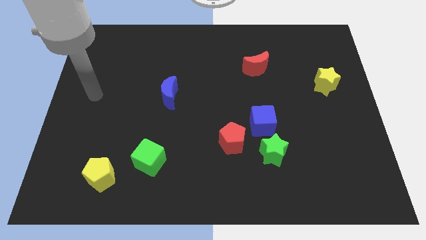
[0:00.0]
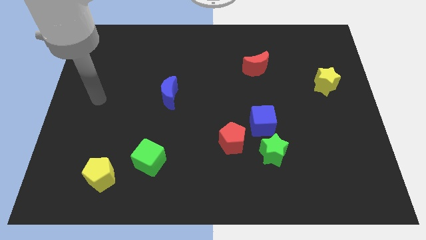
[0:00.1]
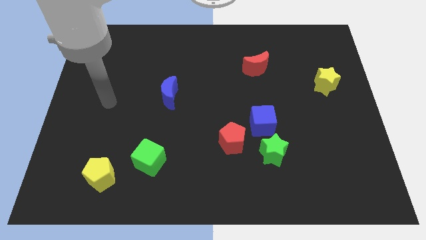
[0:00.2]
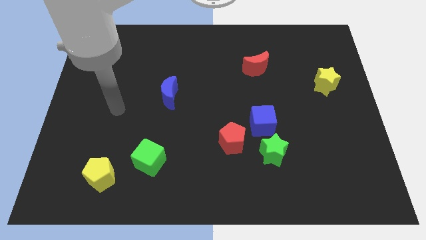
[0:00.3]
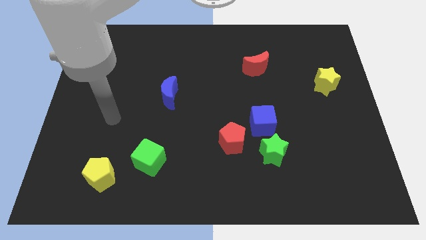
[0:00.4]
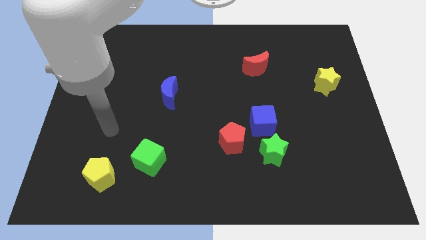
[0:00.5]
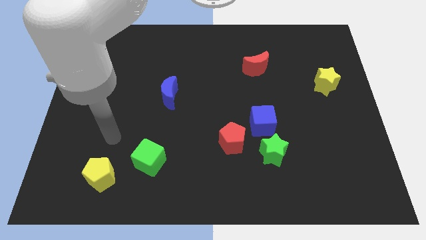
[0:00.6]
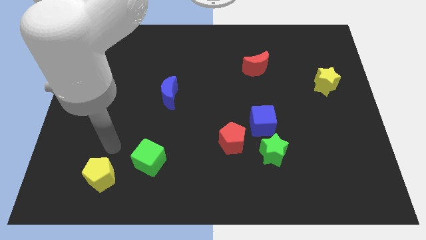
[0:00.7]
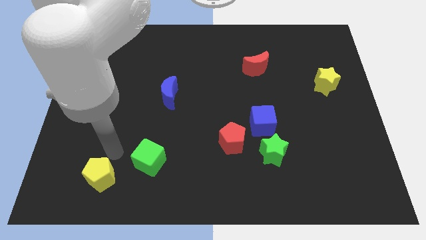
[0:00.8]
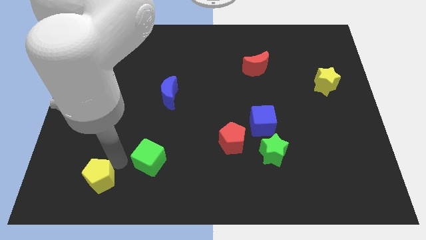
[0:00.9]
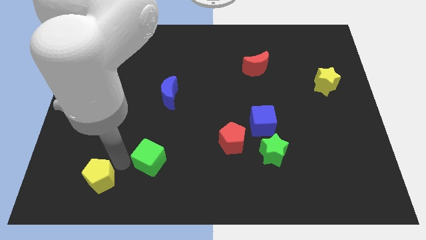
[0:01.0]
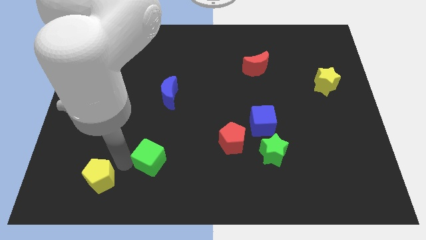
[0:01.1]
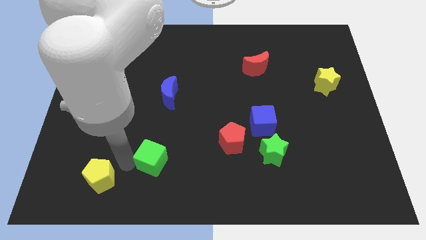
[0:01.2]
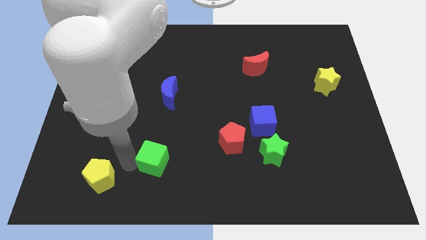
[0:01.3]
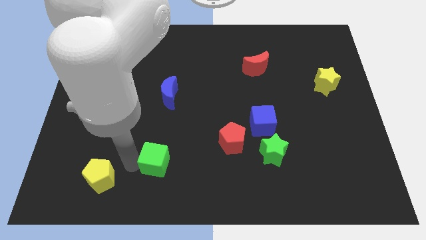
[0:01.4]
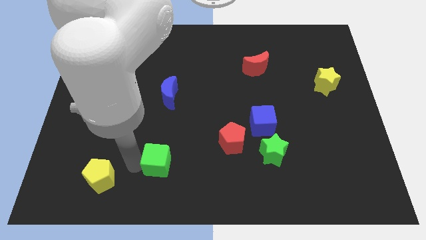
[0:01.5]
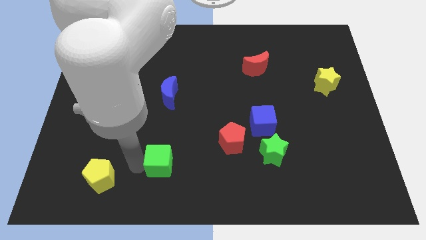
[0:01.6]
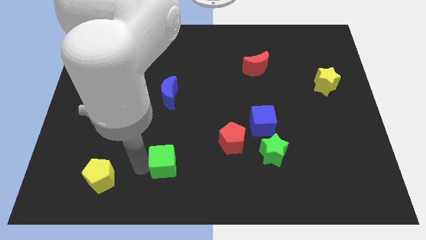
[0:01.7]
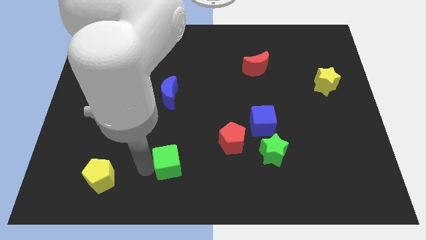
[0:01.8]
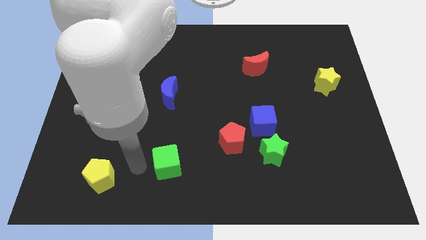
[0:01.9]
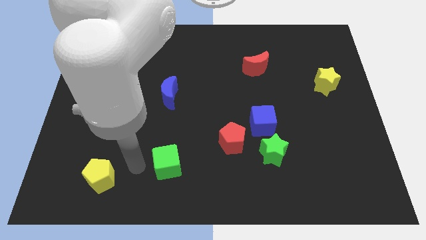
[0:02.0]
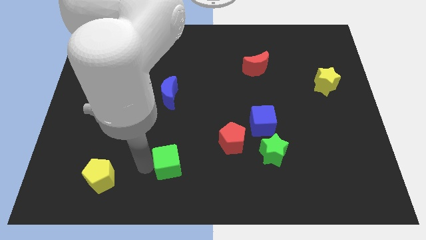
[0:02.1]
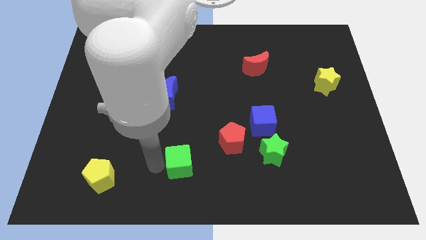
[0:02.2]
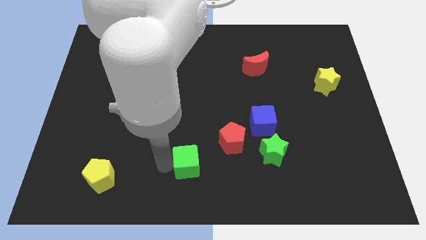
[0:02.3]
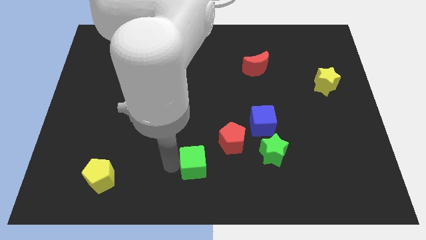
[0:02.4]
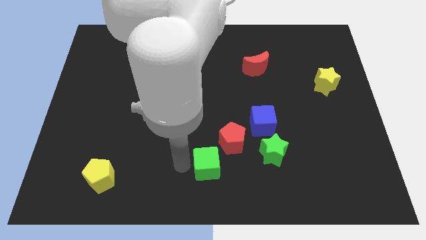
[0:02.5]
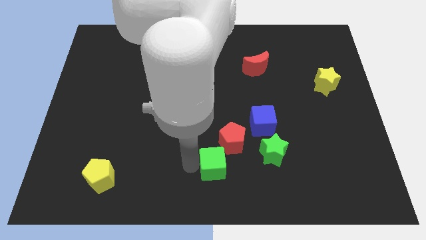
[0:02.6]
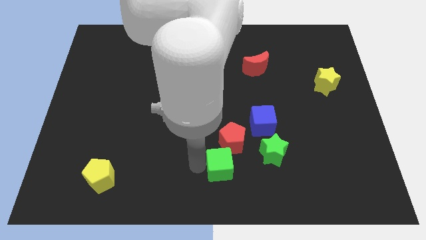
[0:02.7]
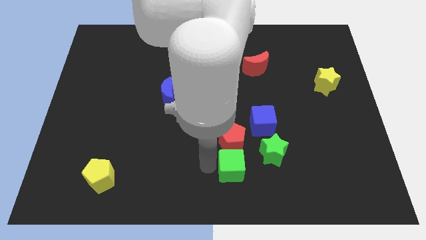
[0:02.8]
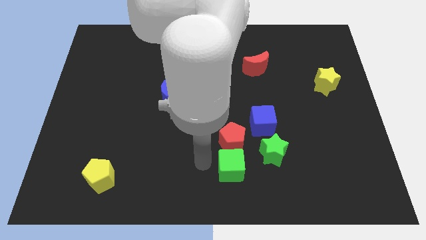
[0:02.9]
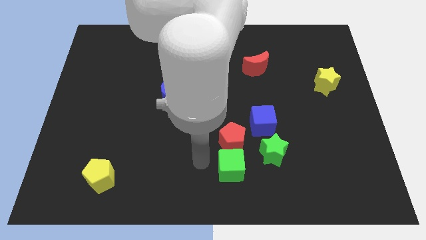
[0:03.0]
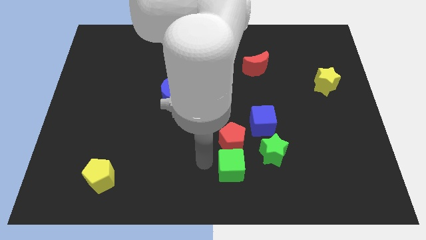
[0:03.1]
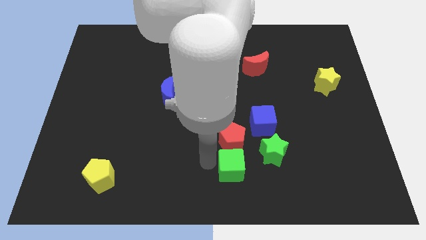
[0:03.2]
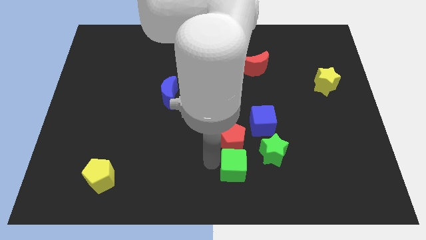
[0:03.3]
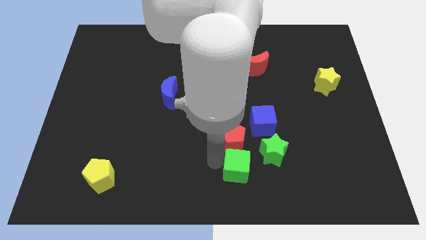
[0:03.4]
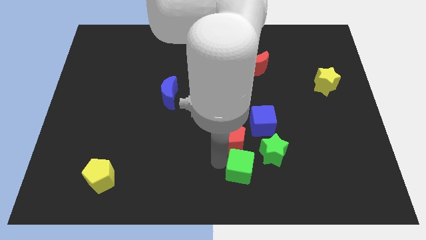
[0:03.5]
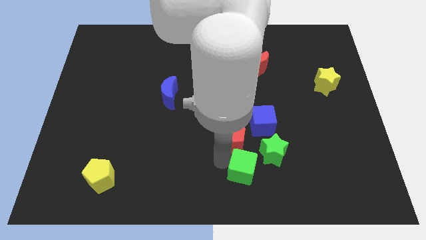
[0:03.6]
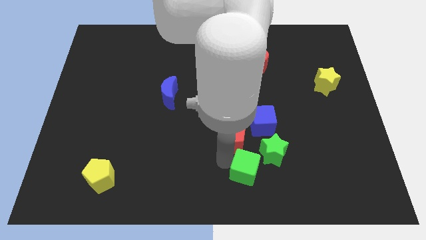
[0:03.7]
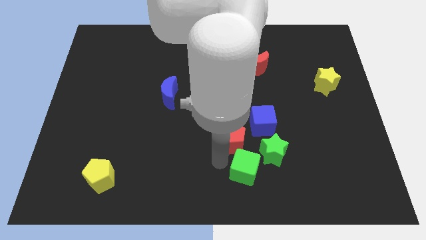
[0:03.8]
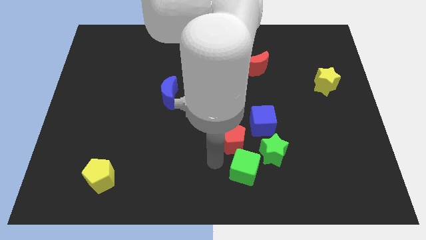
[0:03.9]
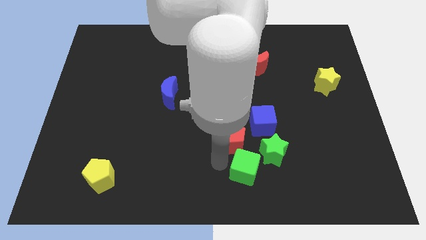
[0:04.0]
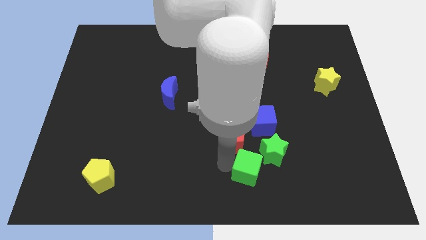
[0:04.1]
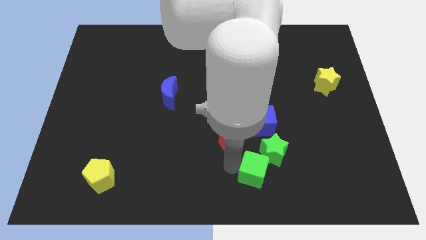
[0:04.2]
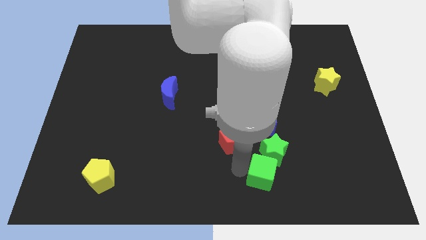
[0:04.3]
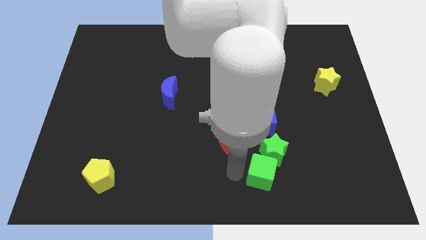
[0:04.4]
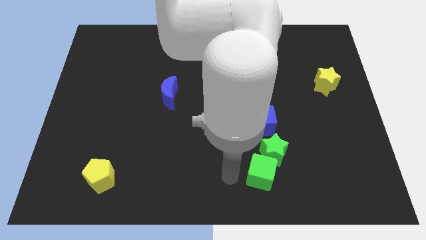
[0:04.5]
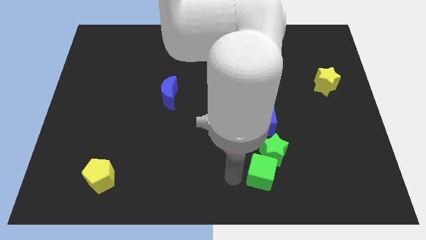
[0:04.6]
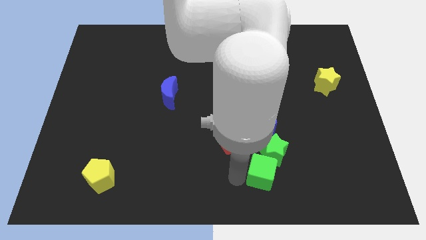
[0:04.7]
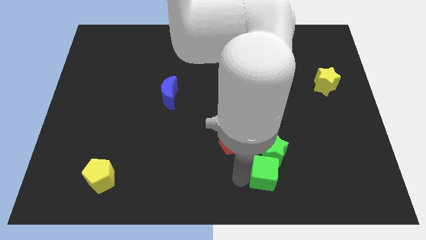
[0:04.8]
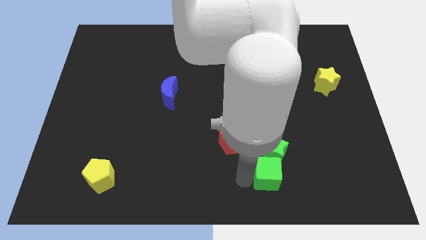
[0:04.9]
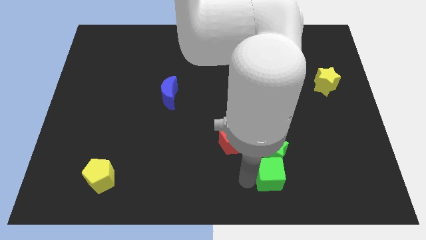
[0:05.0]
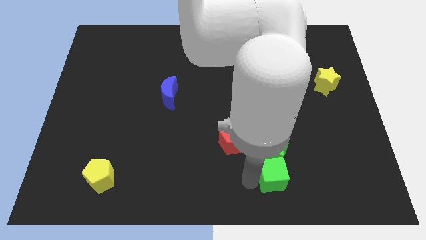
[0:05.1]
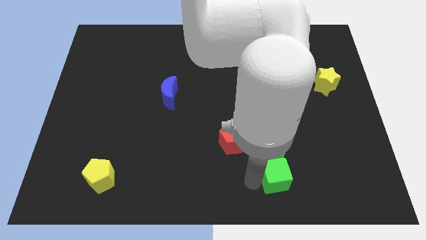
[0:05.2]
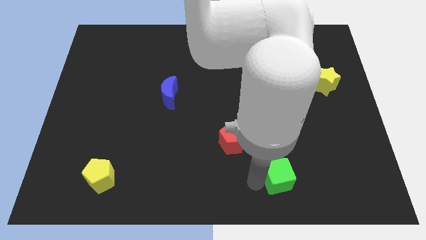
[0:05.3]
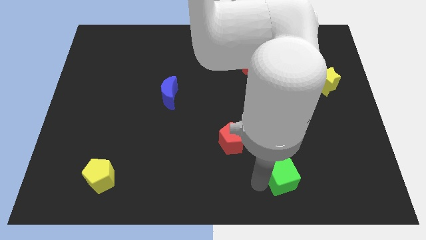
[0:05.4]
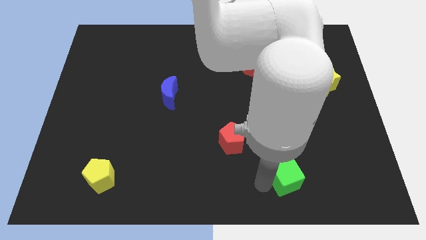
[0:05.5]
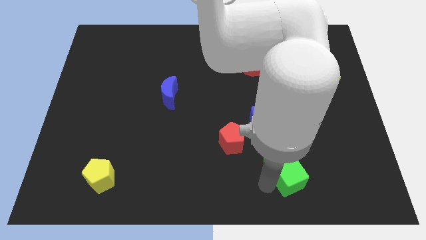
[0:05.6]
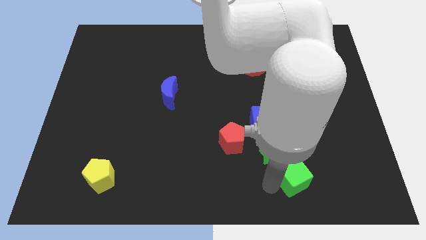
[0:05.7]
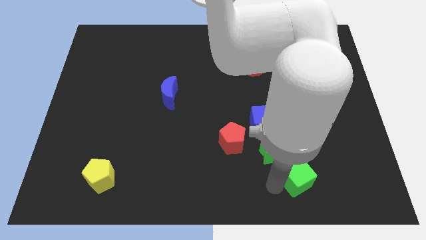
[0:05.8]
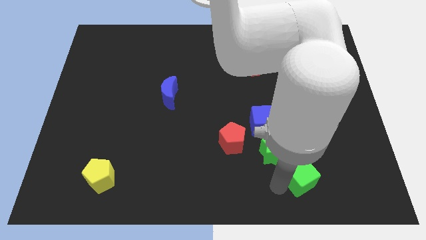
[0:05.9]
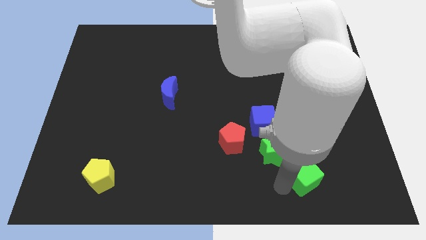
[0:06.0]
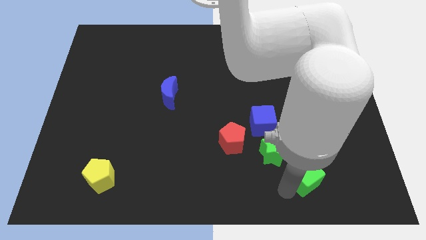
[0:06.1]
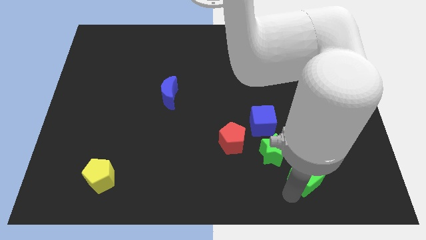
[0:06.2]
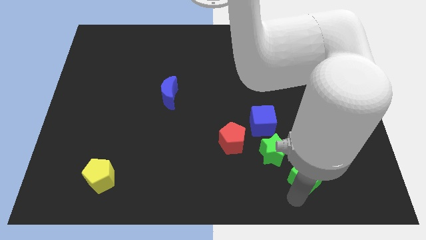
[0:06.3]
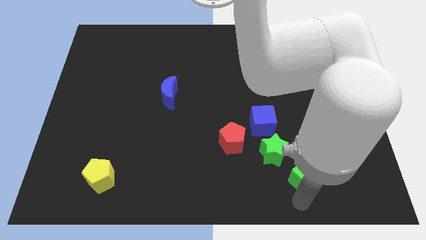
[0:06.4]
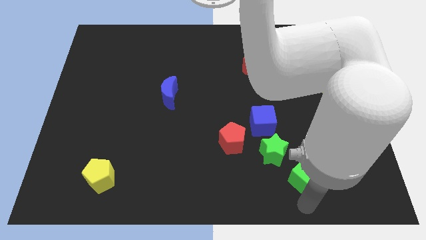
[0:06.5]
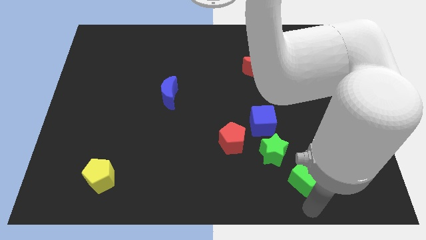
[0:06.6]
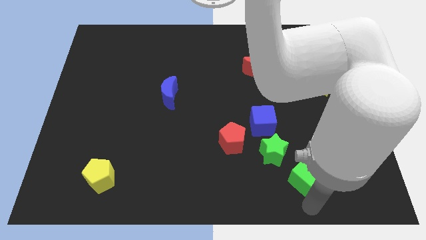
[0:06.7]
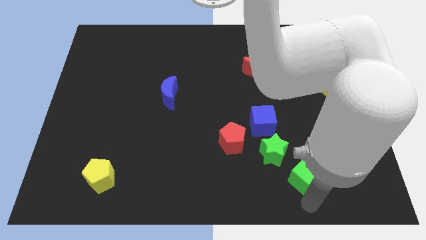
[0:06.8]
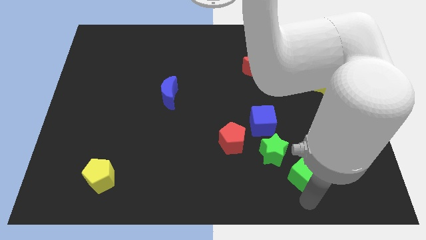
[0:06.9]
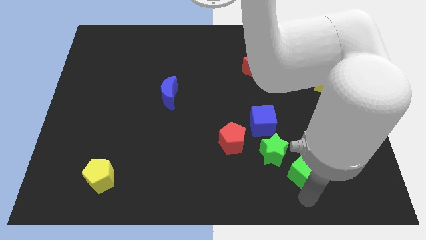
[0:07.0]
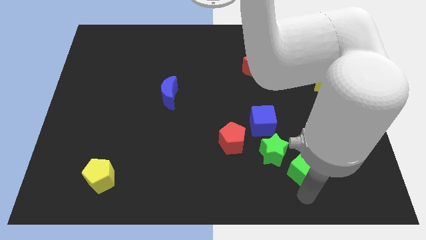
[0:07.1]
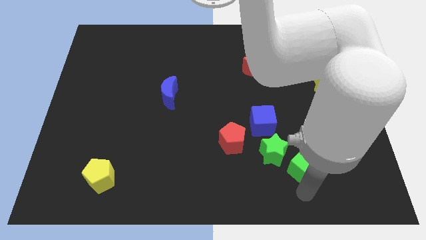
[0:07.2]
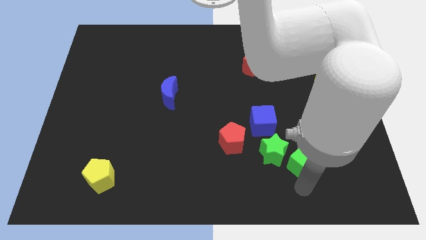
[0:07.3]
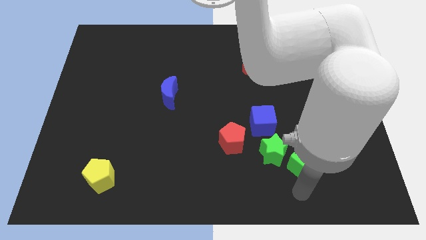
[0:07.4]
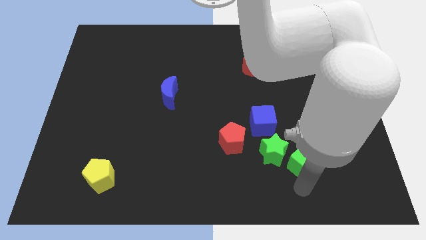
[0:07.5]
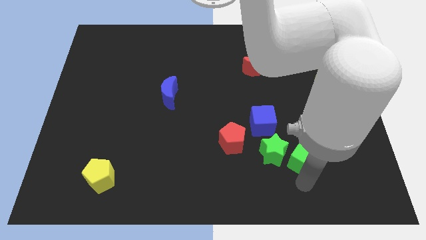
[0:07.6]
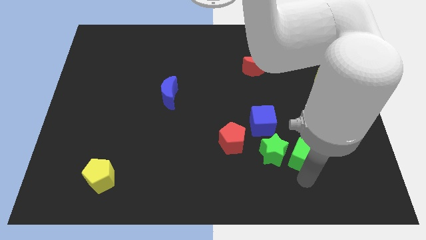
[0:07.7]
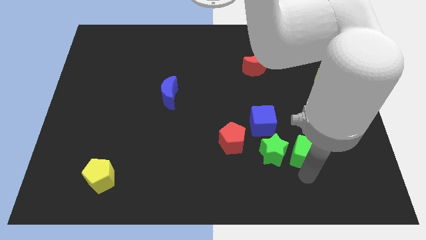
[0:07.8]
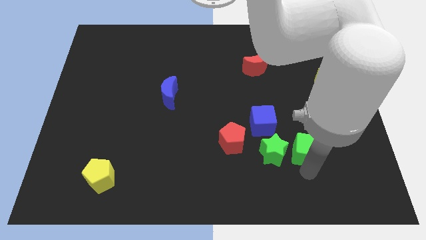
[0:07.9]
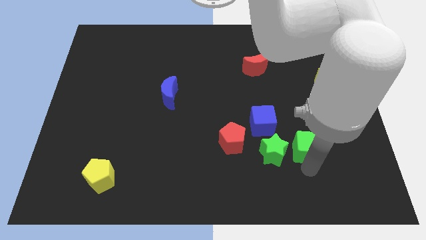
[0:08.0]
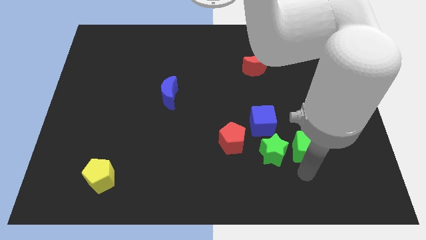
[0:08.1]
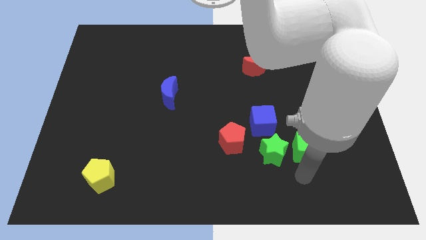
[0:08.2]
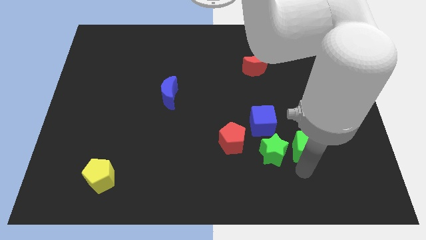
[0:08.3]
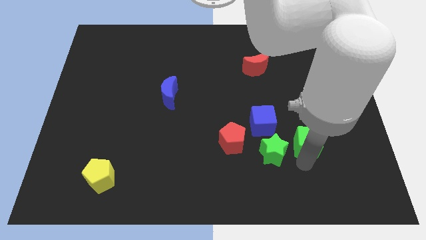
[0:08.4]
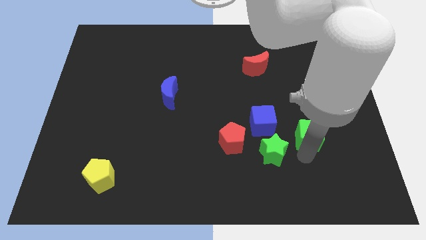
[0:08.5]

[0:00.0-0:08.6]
push the green cube to the right of the blue cube
